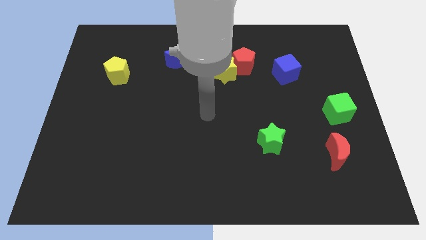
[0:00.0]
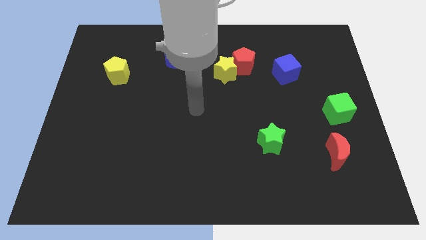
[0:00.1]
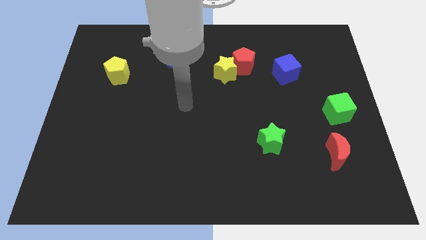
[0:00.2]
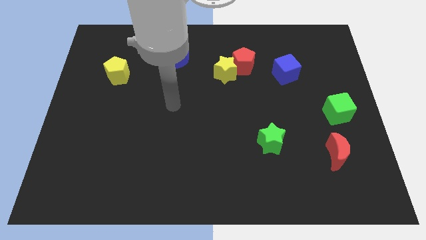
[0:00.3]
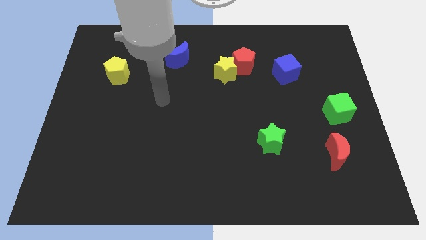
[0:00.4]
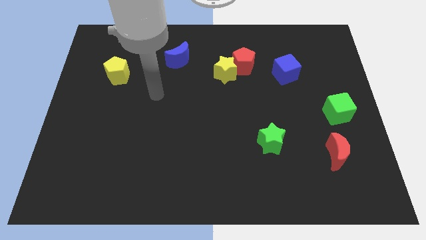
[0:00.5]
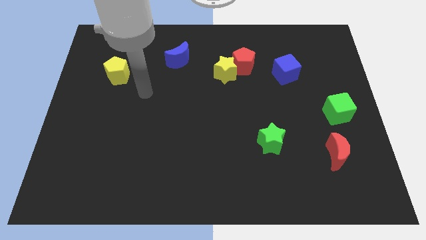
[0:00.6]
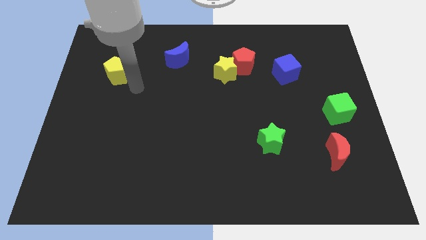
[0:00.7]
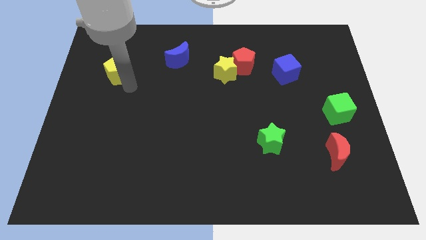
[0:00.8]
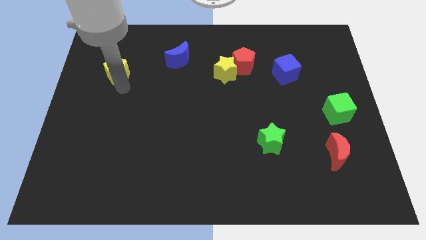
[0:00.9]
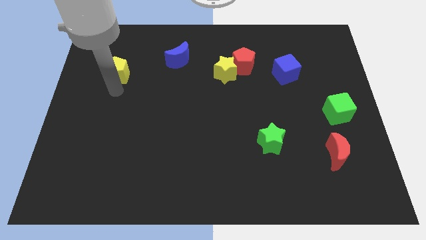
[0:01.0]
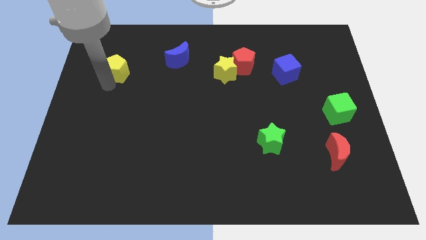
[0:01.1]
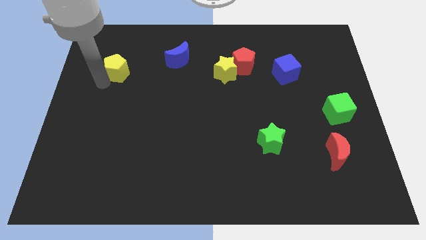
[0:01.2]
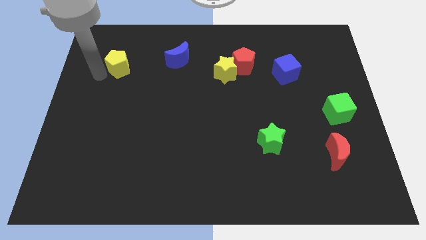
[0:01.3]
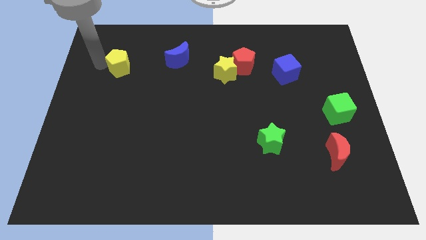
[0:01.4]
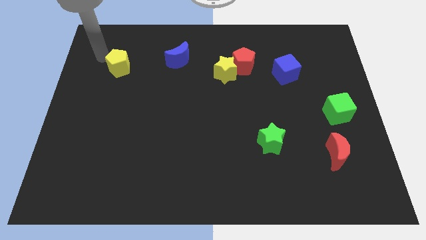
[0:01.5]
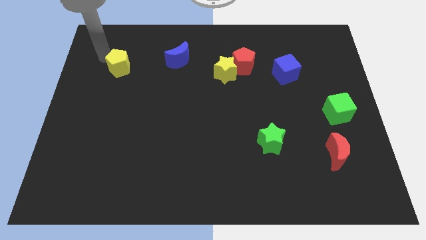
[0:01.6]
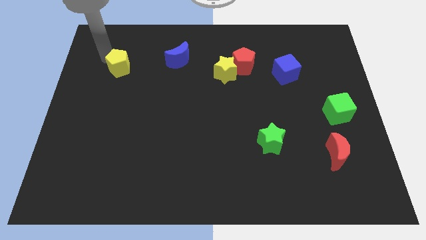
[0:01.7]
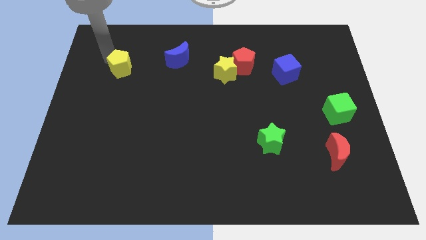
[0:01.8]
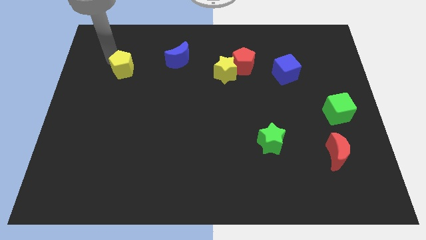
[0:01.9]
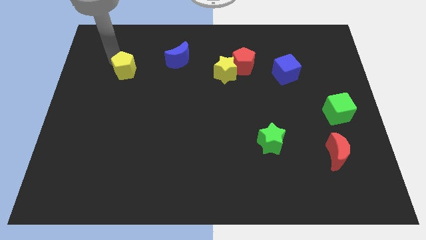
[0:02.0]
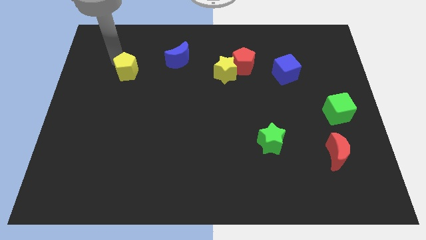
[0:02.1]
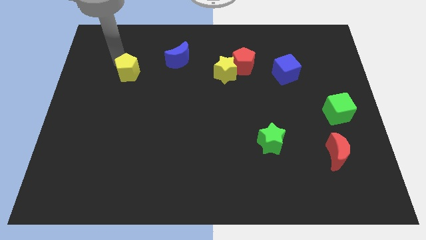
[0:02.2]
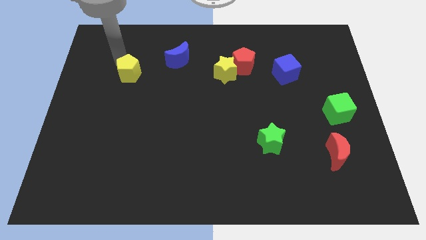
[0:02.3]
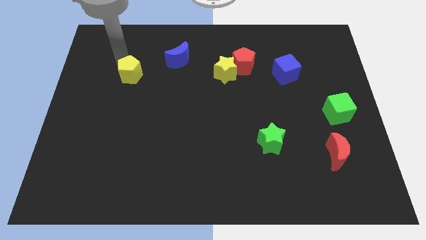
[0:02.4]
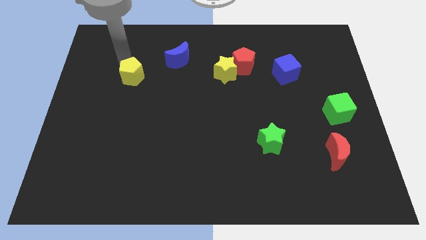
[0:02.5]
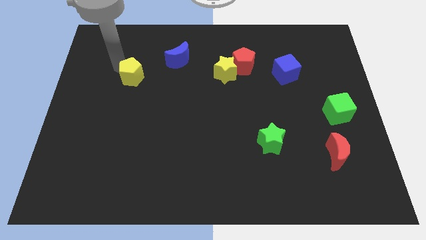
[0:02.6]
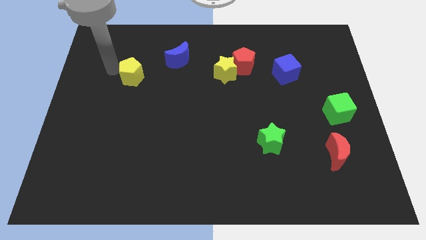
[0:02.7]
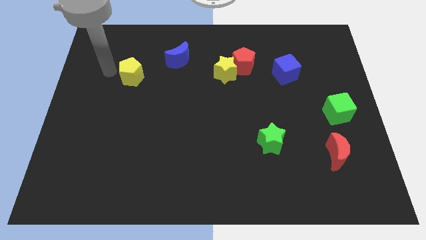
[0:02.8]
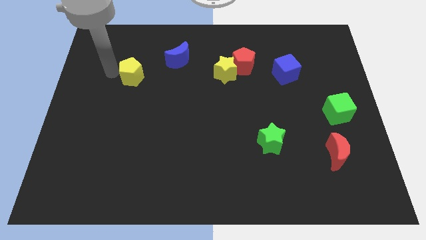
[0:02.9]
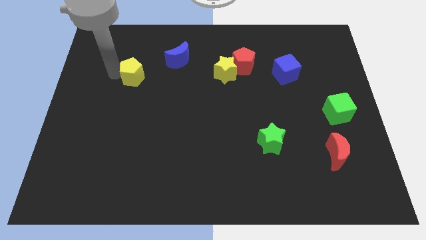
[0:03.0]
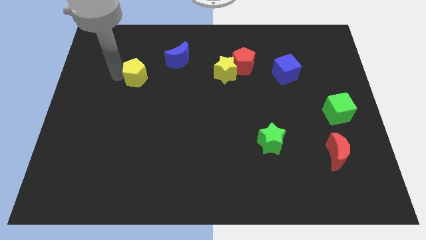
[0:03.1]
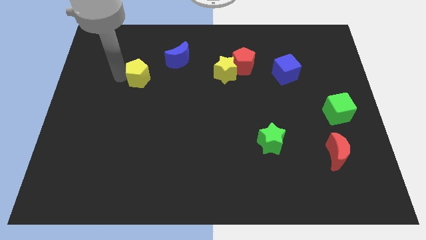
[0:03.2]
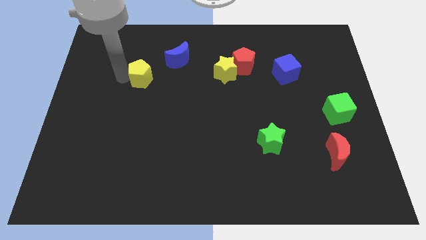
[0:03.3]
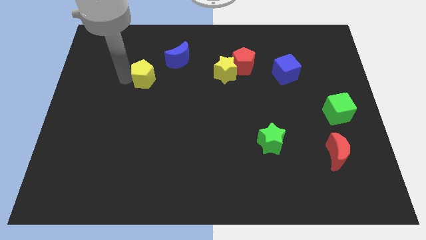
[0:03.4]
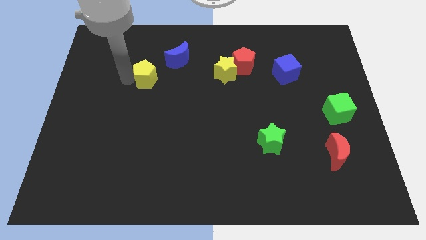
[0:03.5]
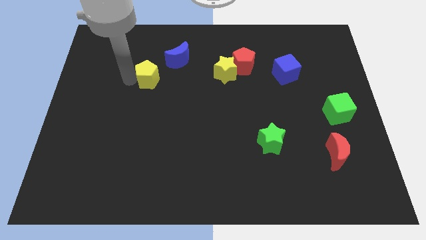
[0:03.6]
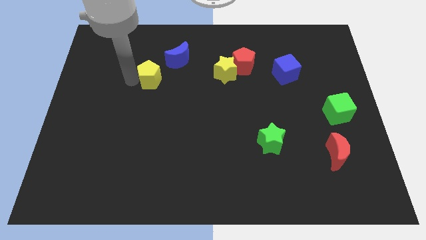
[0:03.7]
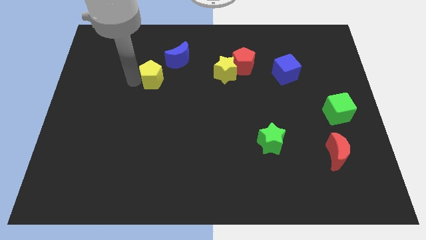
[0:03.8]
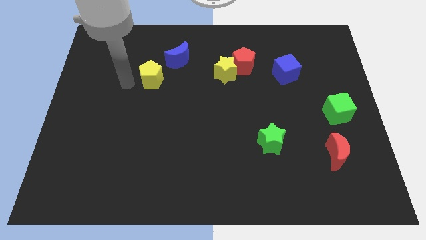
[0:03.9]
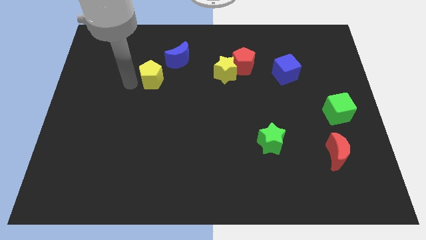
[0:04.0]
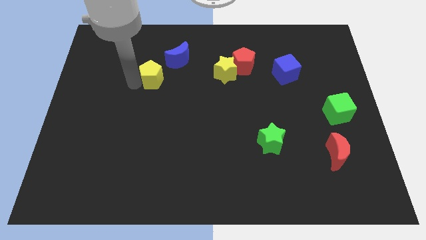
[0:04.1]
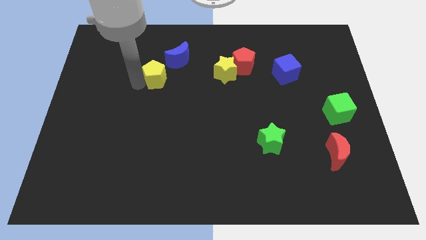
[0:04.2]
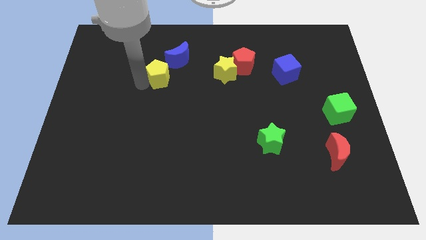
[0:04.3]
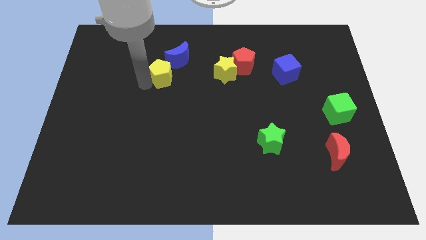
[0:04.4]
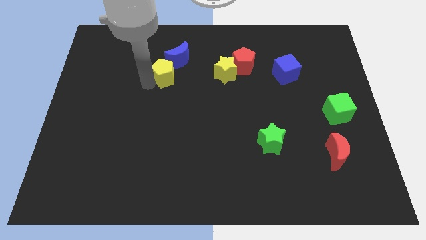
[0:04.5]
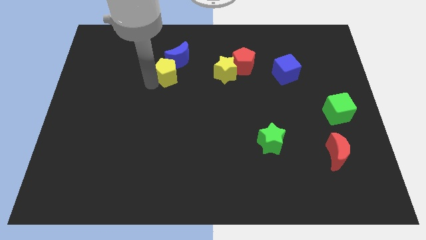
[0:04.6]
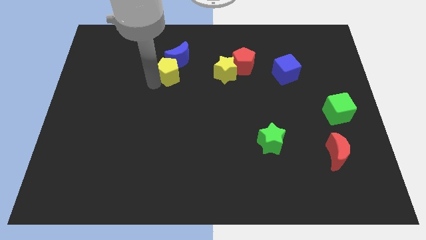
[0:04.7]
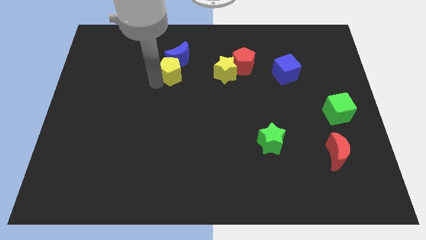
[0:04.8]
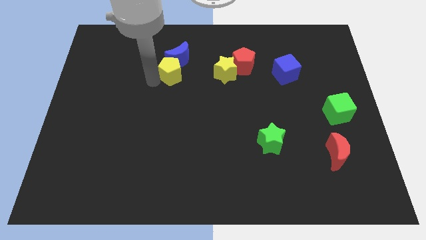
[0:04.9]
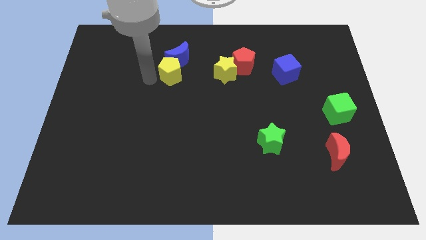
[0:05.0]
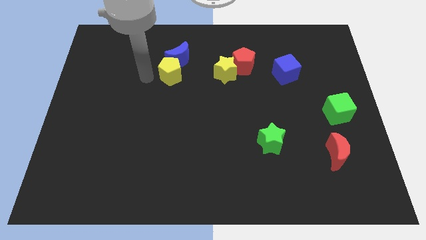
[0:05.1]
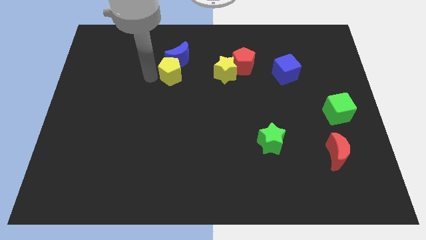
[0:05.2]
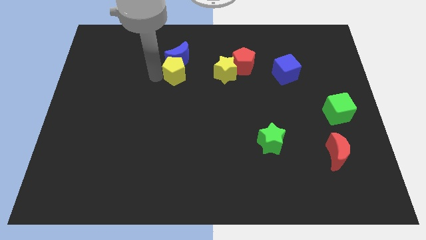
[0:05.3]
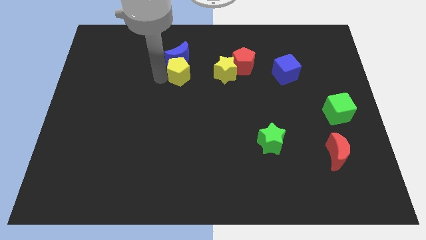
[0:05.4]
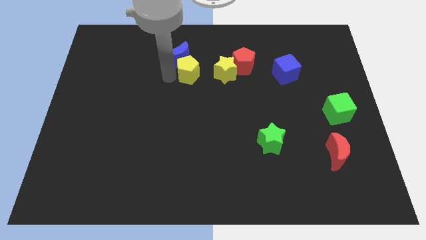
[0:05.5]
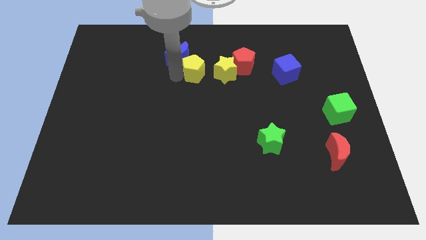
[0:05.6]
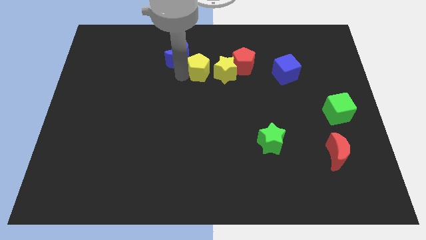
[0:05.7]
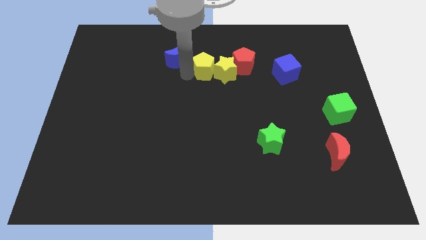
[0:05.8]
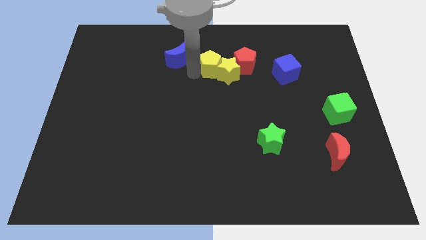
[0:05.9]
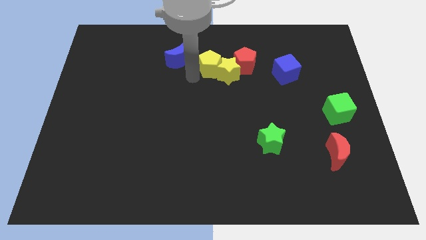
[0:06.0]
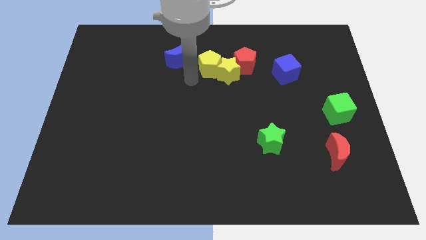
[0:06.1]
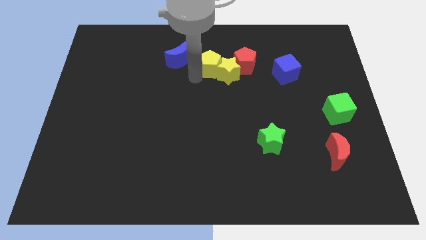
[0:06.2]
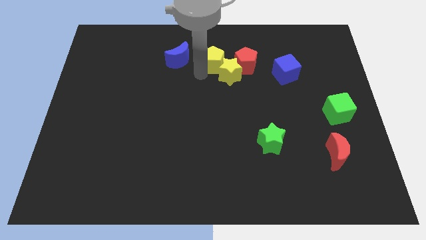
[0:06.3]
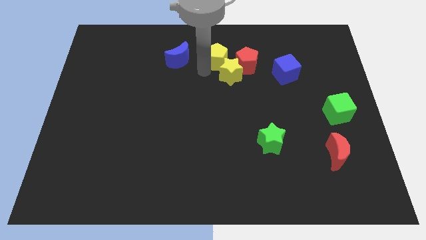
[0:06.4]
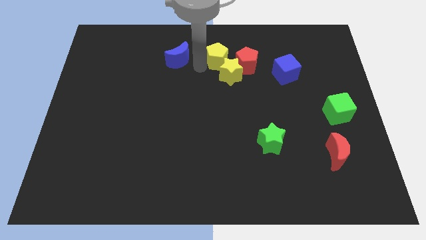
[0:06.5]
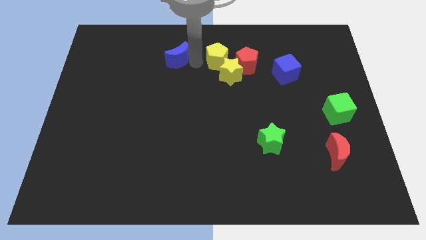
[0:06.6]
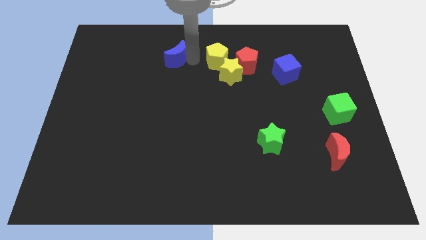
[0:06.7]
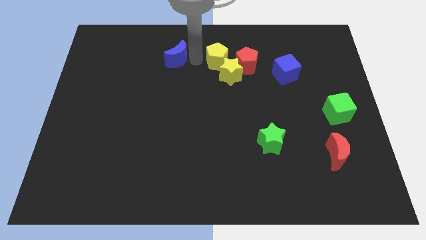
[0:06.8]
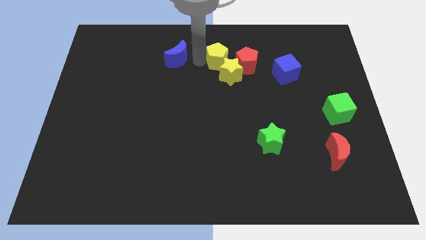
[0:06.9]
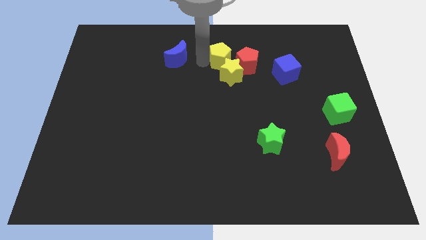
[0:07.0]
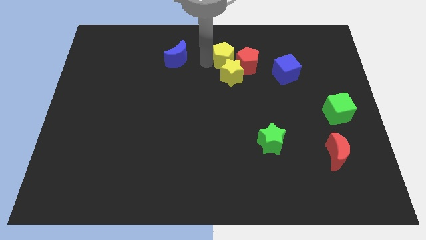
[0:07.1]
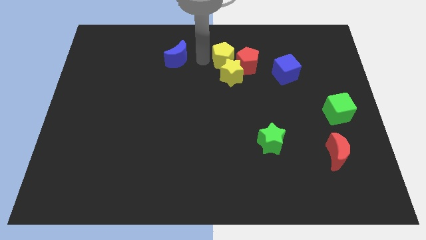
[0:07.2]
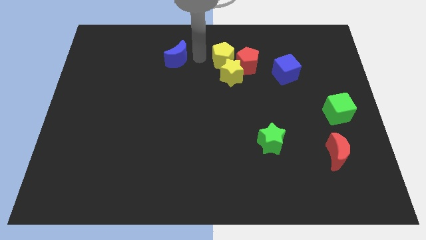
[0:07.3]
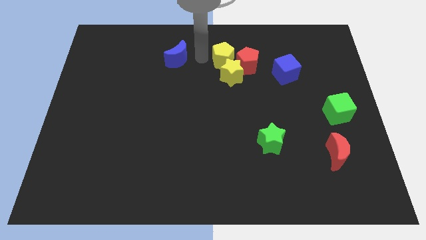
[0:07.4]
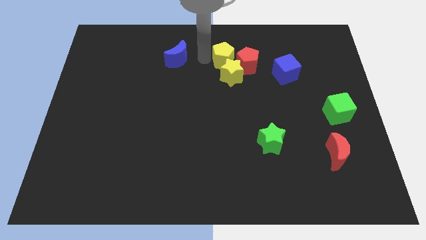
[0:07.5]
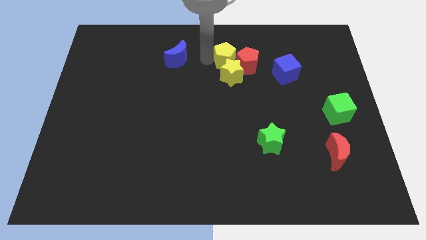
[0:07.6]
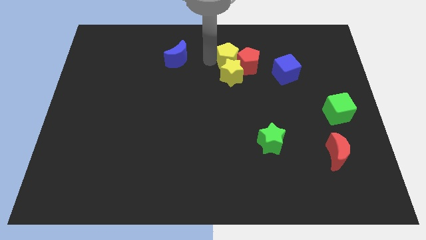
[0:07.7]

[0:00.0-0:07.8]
put the yellow pentagon to the top right side of the yellow star
